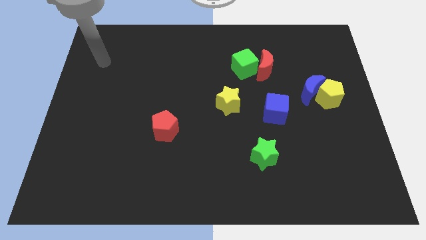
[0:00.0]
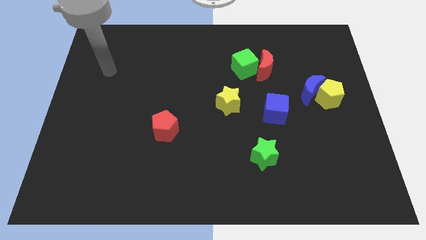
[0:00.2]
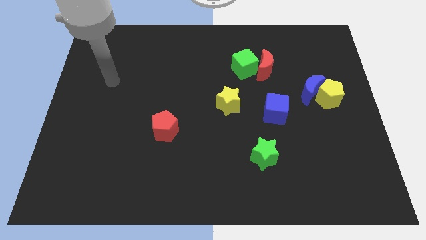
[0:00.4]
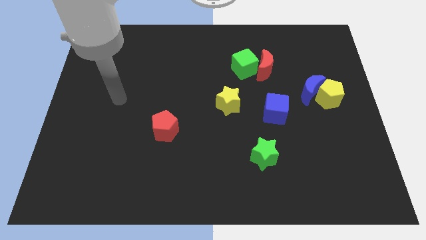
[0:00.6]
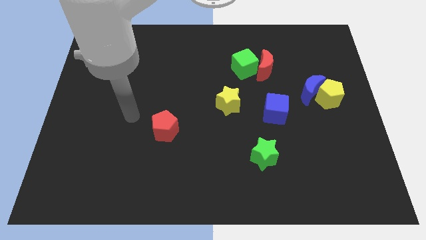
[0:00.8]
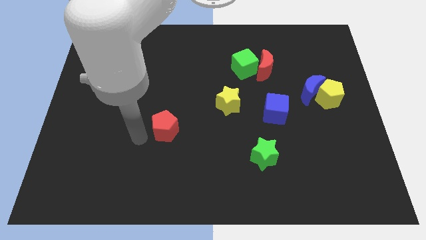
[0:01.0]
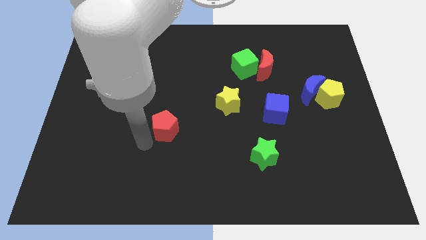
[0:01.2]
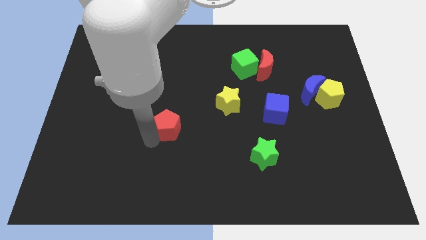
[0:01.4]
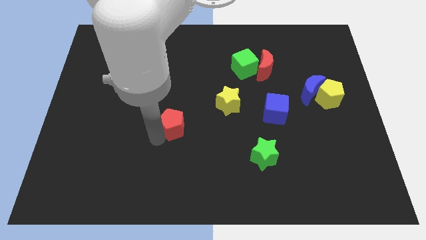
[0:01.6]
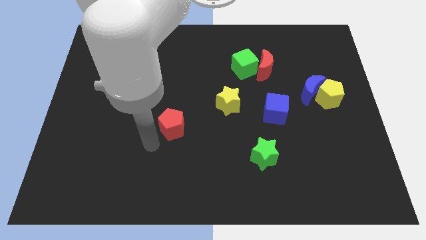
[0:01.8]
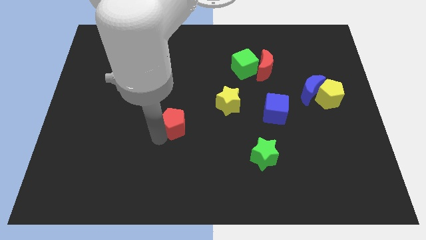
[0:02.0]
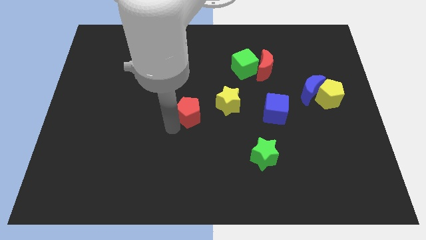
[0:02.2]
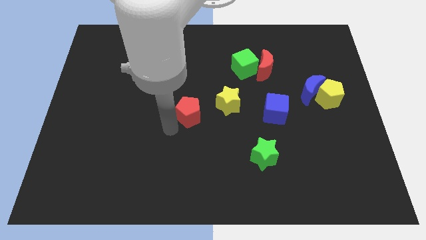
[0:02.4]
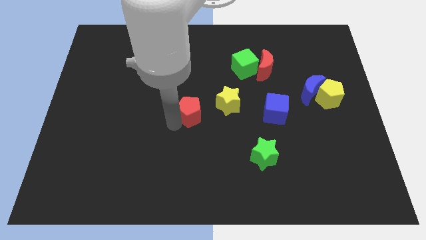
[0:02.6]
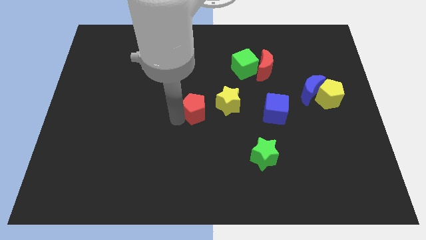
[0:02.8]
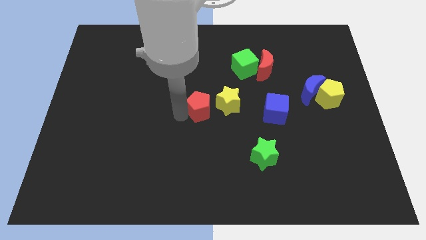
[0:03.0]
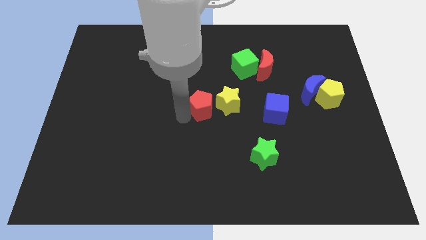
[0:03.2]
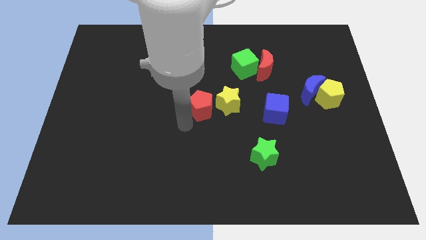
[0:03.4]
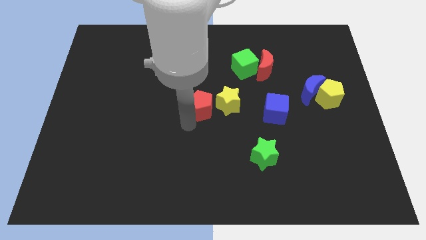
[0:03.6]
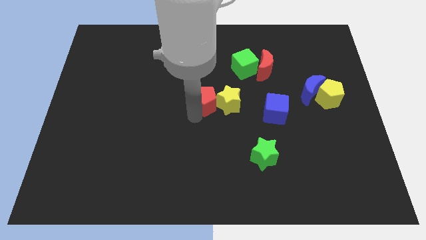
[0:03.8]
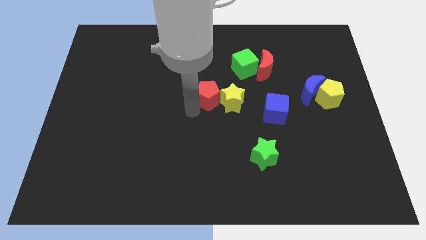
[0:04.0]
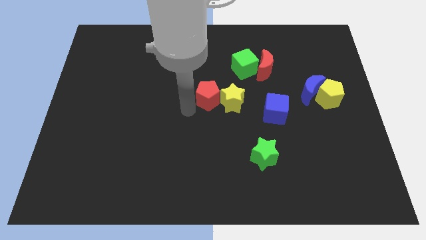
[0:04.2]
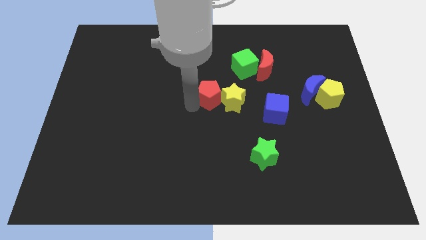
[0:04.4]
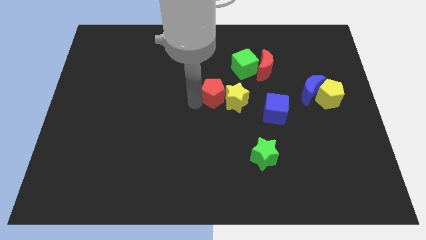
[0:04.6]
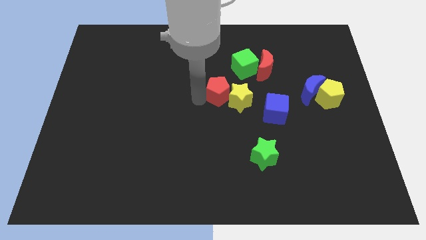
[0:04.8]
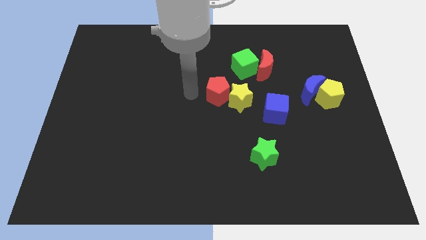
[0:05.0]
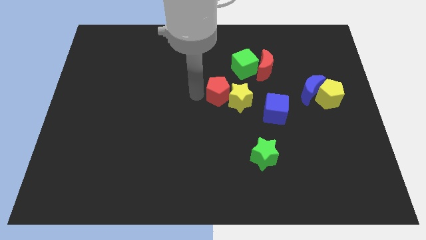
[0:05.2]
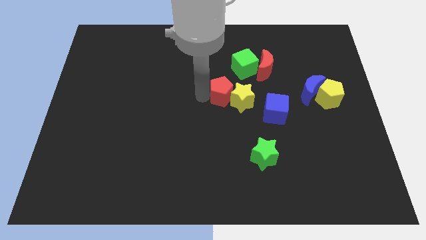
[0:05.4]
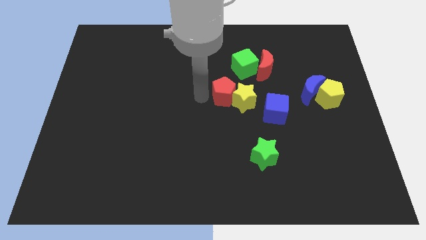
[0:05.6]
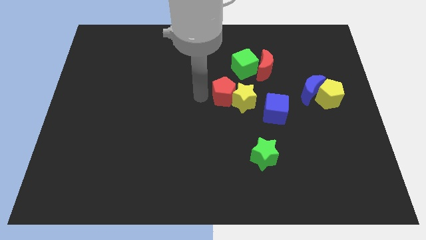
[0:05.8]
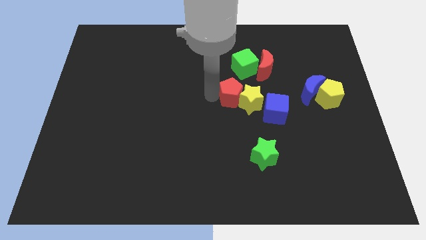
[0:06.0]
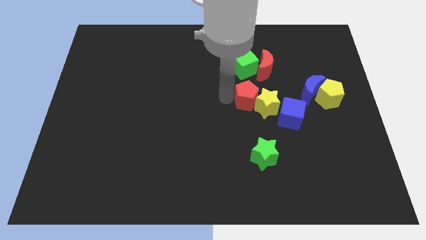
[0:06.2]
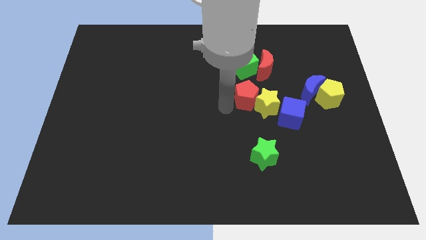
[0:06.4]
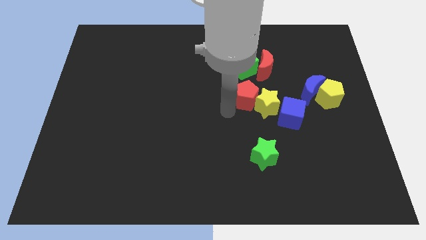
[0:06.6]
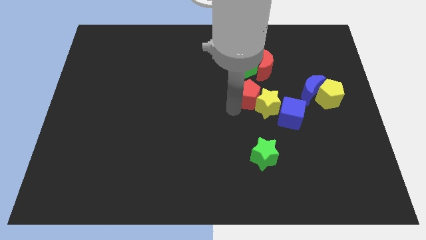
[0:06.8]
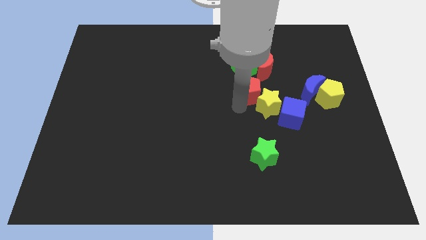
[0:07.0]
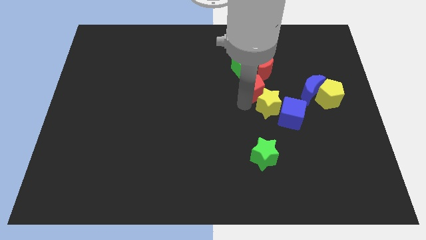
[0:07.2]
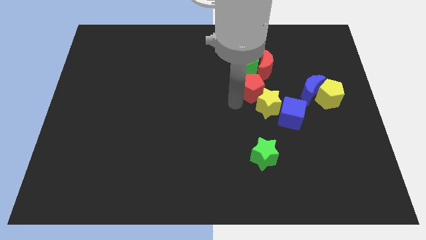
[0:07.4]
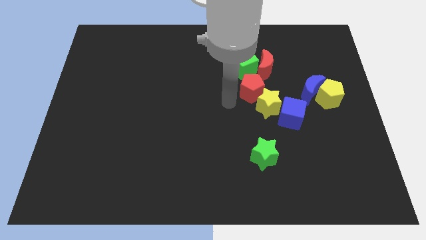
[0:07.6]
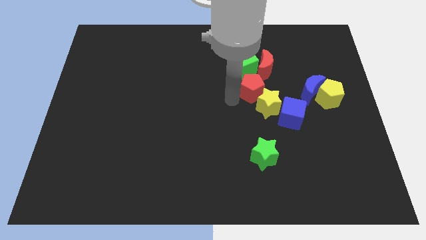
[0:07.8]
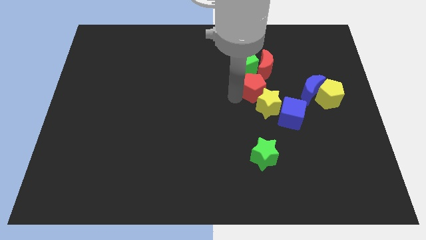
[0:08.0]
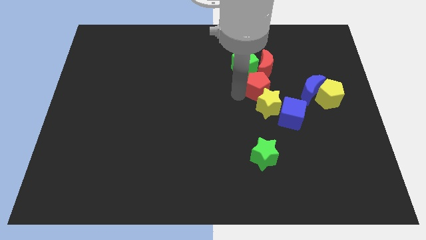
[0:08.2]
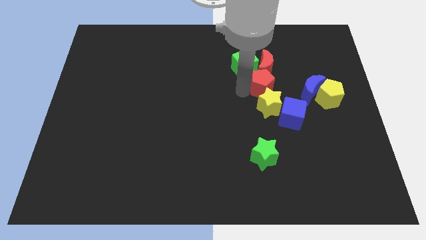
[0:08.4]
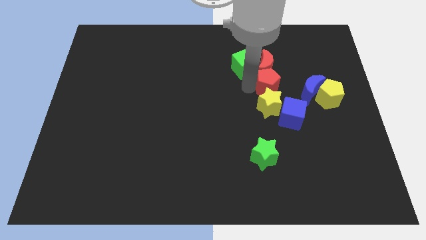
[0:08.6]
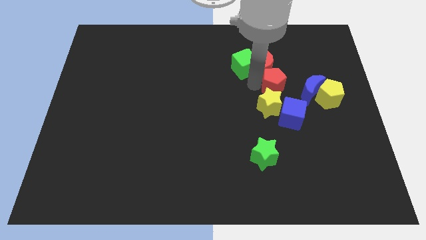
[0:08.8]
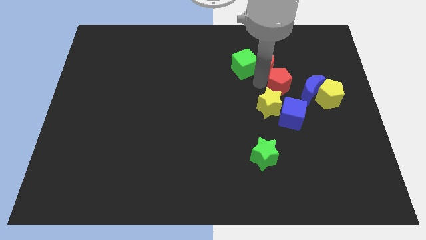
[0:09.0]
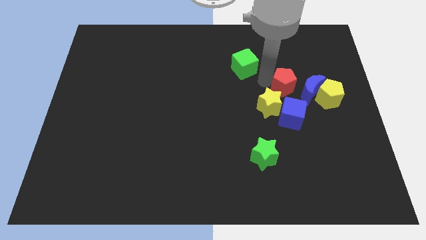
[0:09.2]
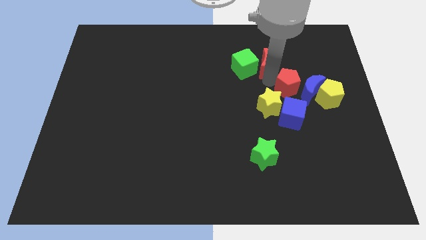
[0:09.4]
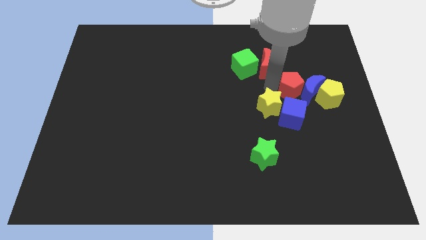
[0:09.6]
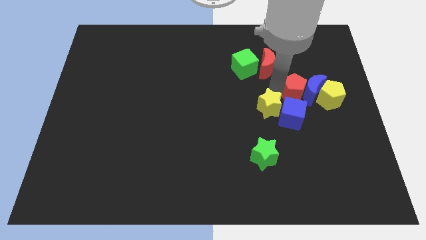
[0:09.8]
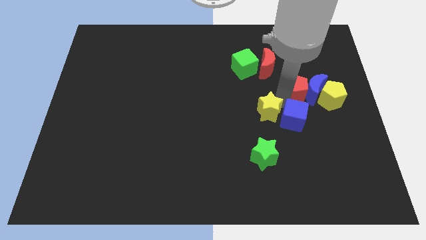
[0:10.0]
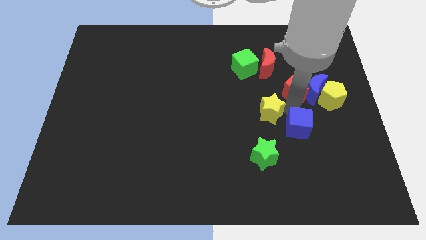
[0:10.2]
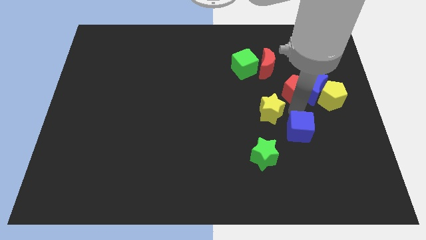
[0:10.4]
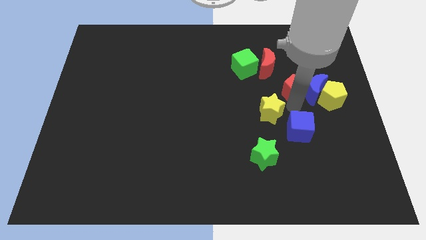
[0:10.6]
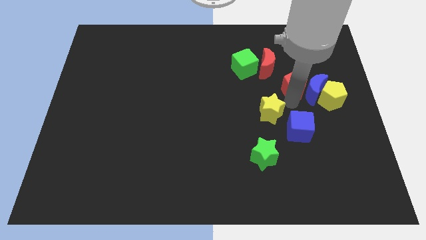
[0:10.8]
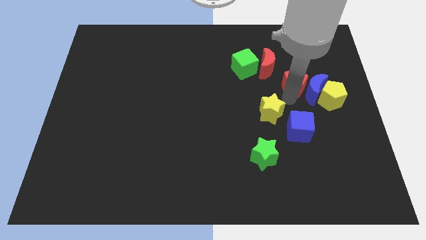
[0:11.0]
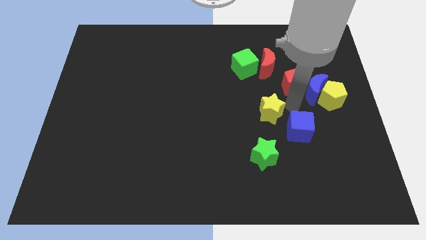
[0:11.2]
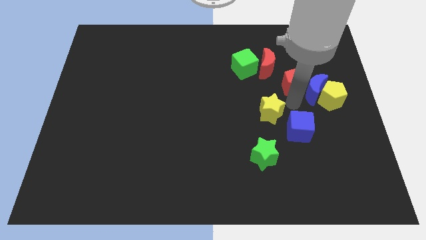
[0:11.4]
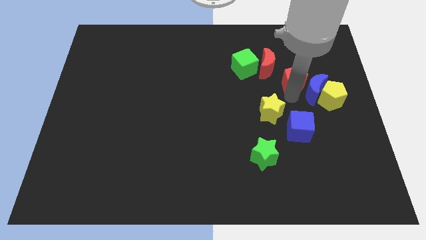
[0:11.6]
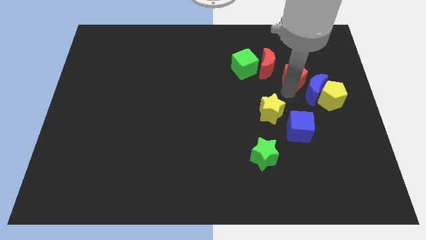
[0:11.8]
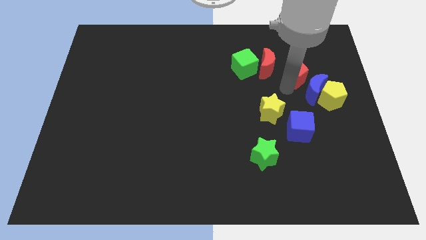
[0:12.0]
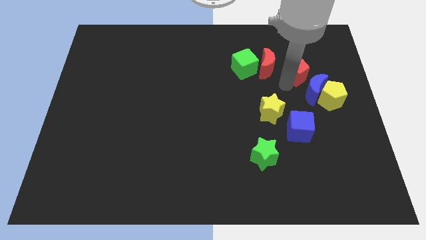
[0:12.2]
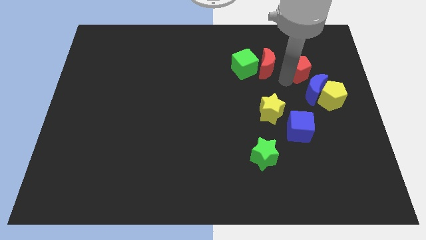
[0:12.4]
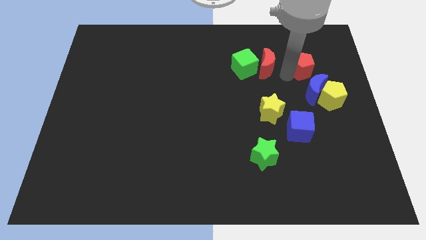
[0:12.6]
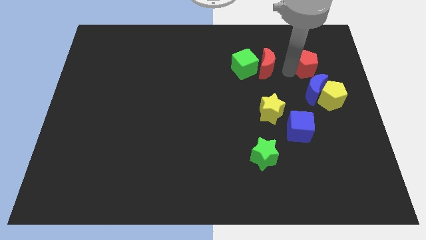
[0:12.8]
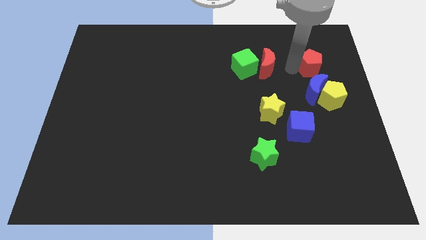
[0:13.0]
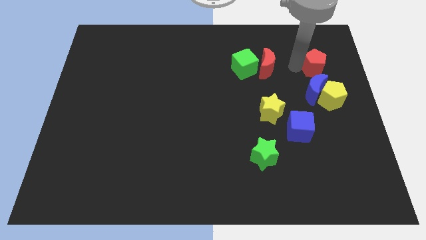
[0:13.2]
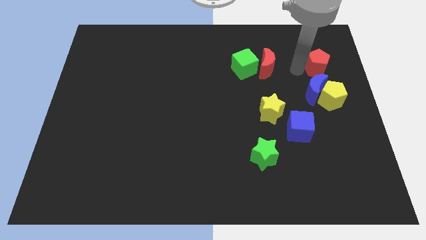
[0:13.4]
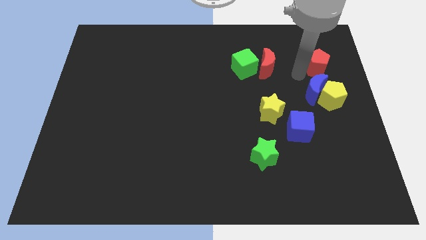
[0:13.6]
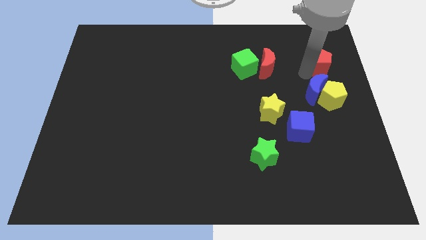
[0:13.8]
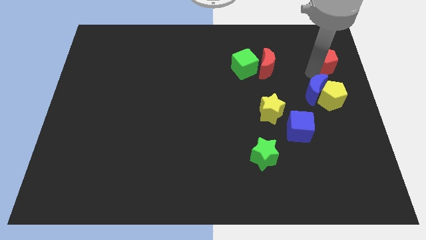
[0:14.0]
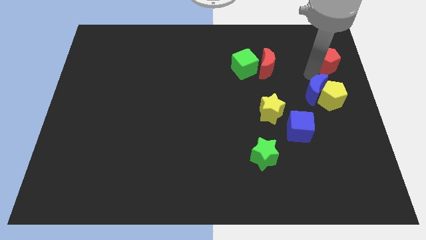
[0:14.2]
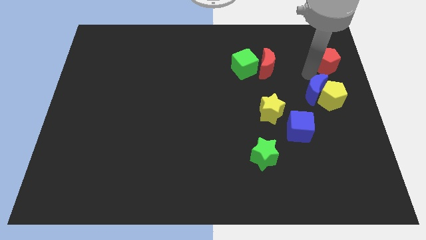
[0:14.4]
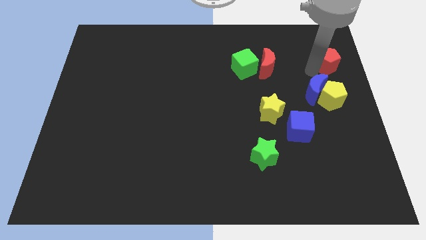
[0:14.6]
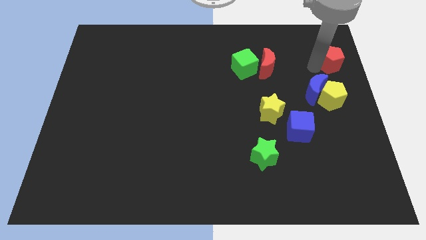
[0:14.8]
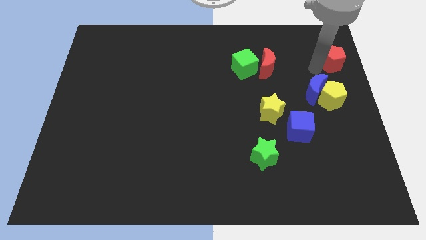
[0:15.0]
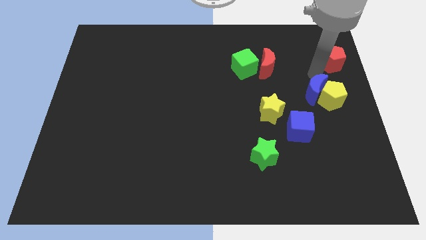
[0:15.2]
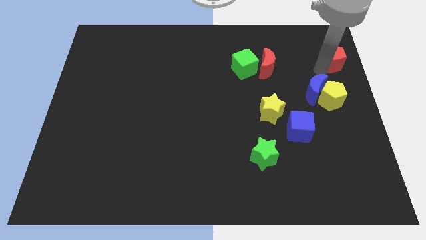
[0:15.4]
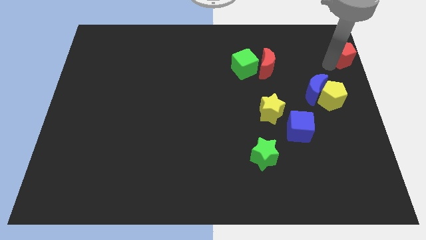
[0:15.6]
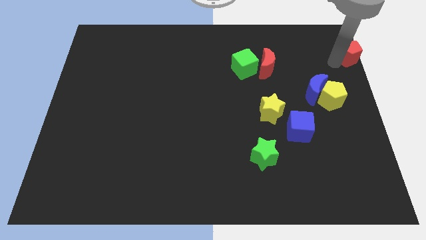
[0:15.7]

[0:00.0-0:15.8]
slide the red pentagon to the top right corner
